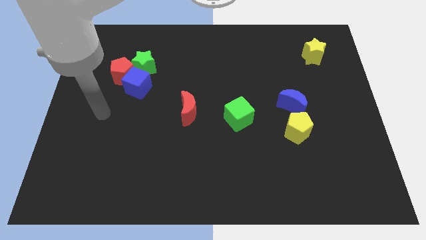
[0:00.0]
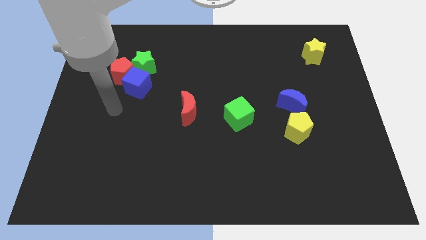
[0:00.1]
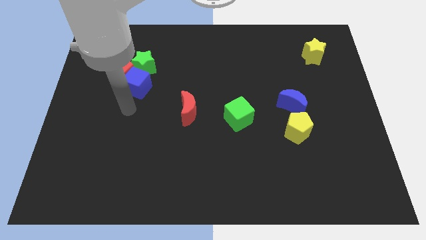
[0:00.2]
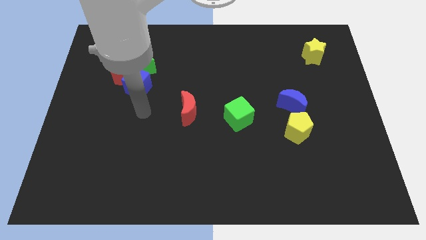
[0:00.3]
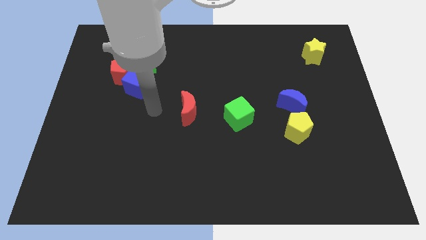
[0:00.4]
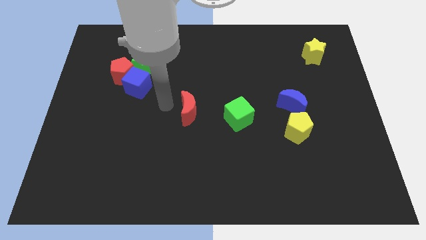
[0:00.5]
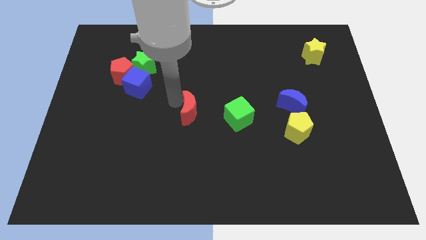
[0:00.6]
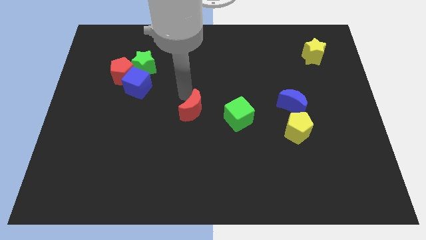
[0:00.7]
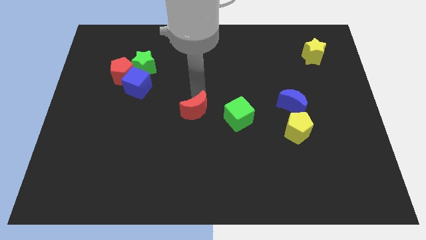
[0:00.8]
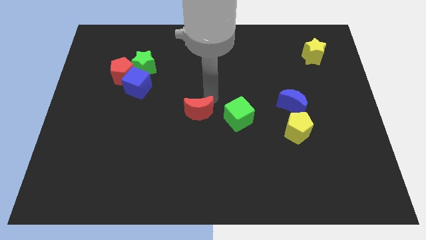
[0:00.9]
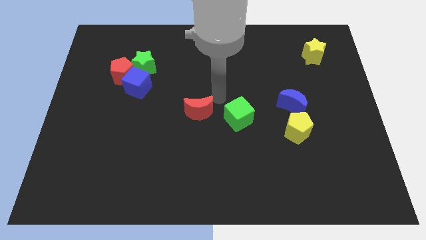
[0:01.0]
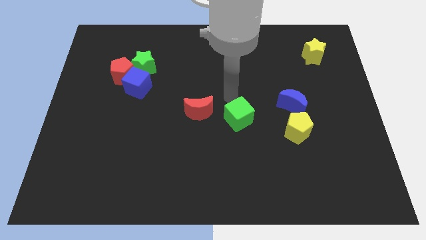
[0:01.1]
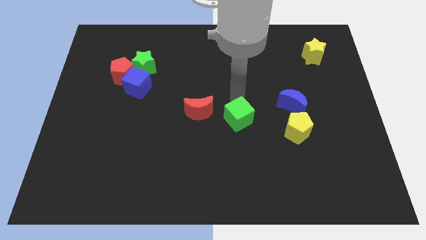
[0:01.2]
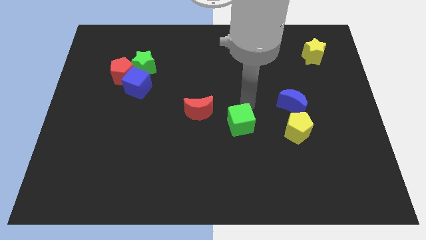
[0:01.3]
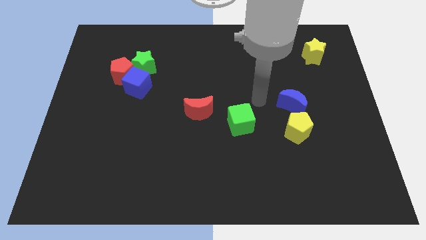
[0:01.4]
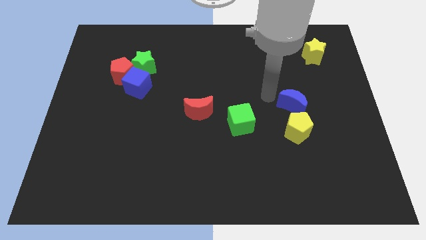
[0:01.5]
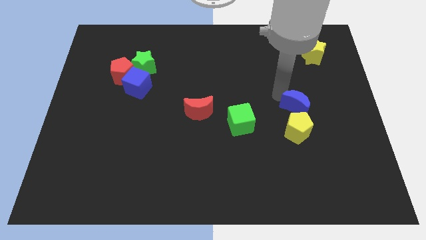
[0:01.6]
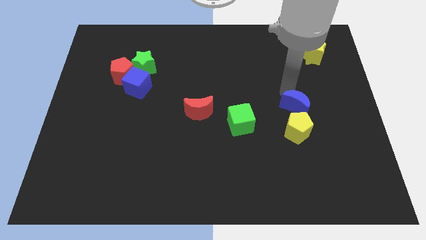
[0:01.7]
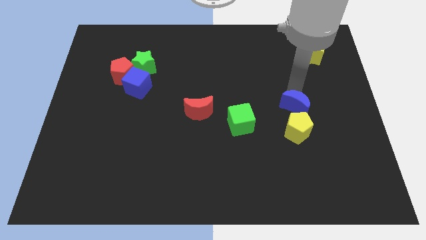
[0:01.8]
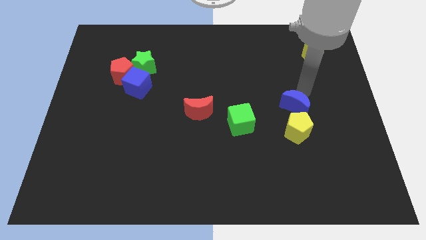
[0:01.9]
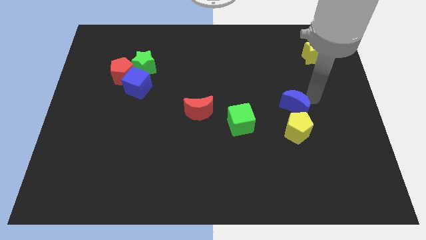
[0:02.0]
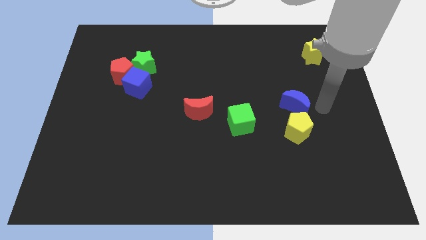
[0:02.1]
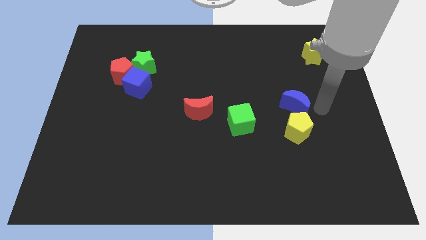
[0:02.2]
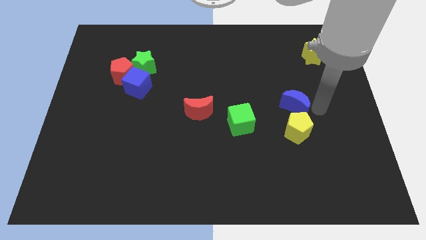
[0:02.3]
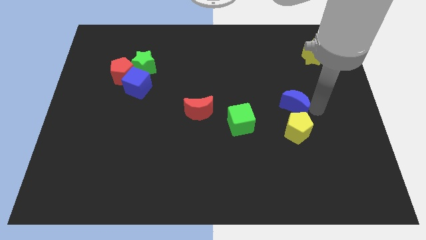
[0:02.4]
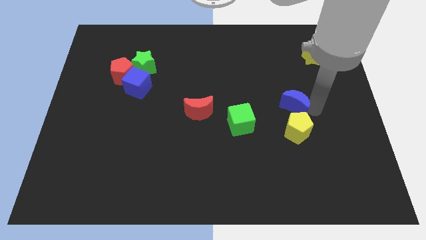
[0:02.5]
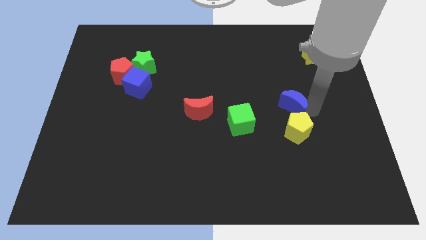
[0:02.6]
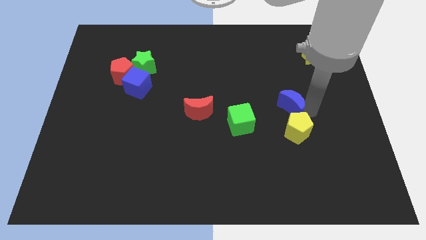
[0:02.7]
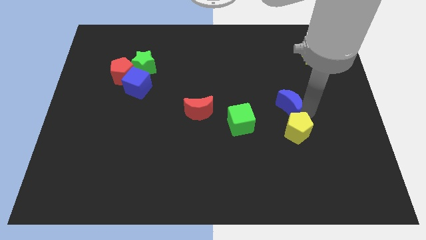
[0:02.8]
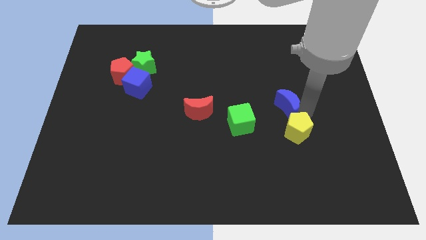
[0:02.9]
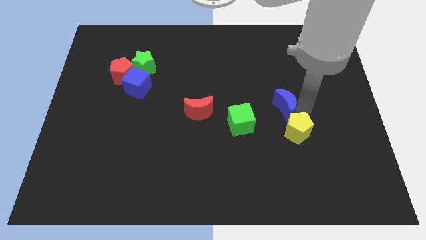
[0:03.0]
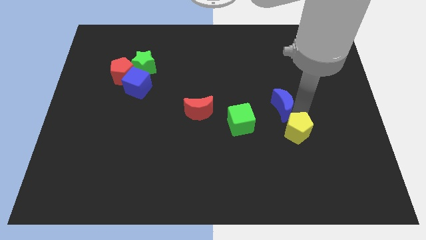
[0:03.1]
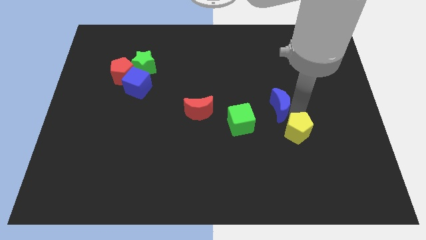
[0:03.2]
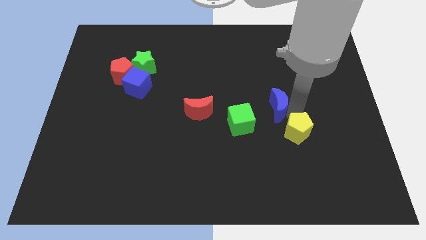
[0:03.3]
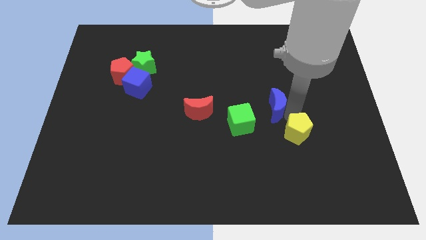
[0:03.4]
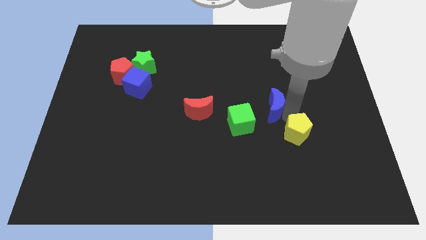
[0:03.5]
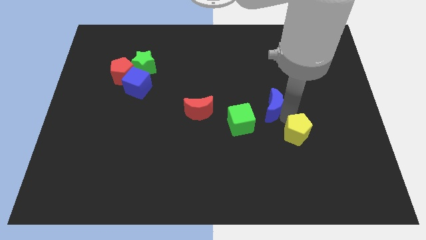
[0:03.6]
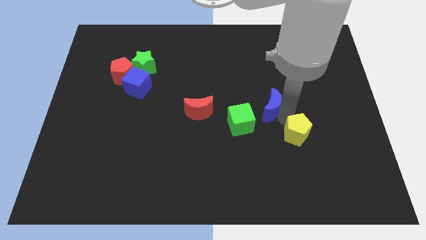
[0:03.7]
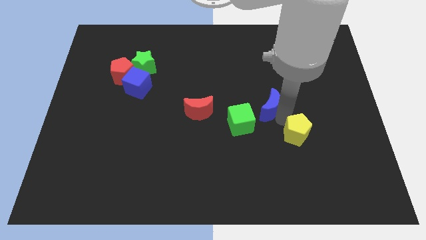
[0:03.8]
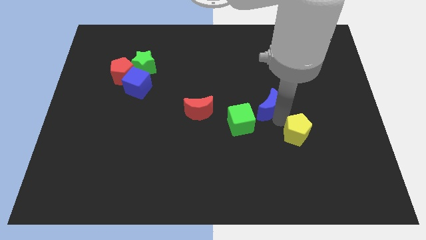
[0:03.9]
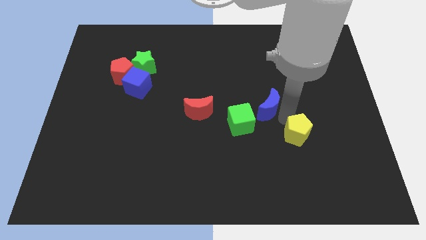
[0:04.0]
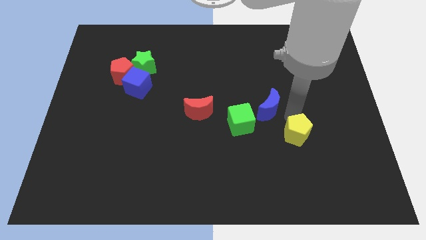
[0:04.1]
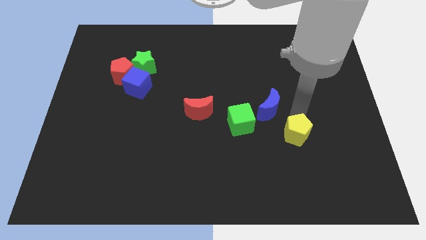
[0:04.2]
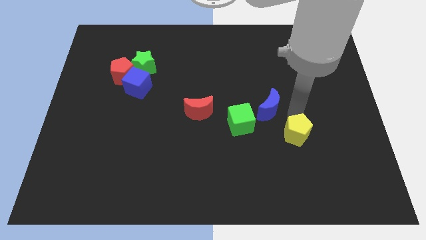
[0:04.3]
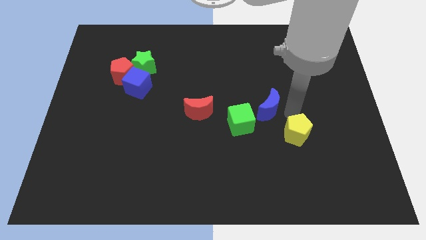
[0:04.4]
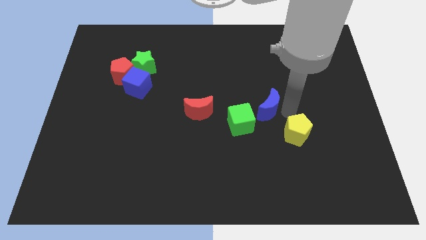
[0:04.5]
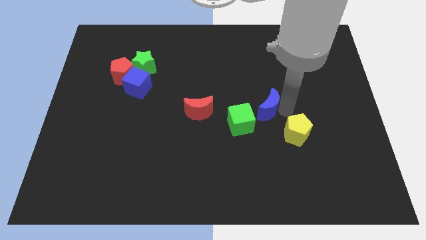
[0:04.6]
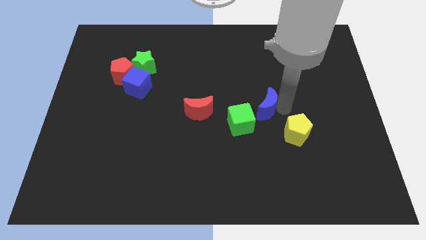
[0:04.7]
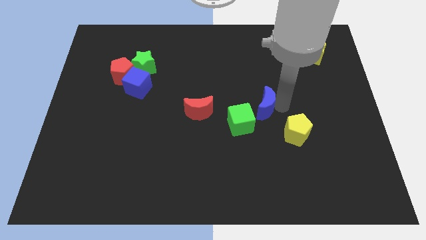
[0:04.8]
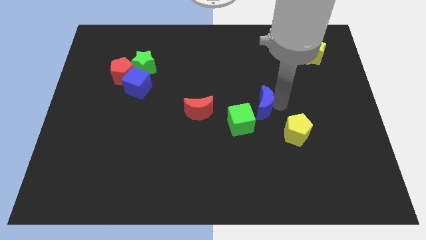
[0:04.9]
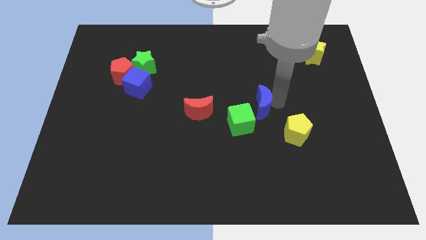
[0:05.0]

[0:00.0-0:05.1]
slightly slide the blue moon to the left

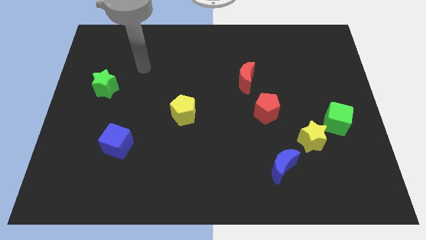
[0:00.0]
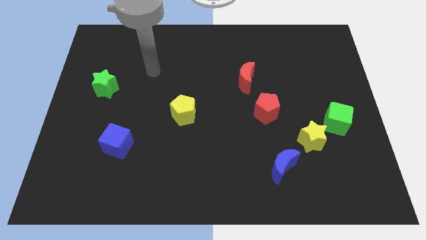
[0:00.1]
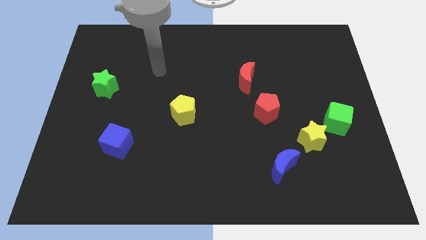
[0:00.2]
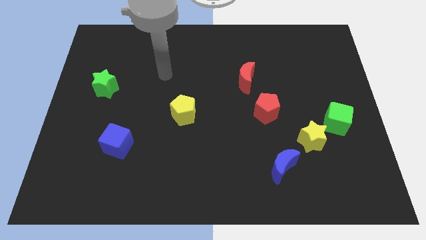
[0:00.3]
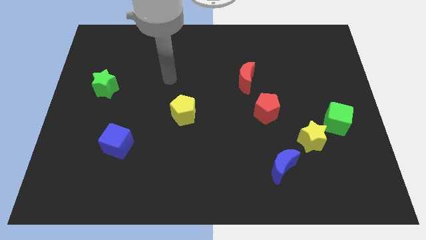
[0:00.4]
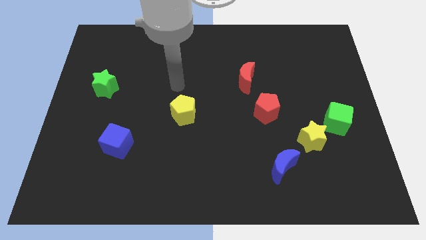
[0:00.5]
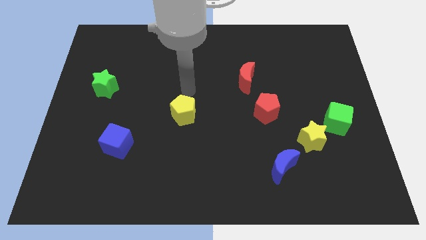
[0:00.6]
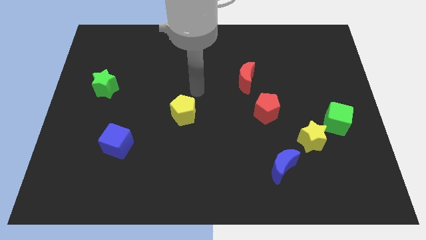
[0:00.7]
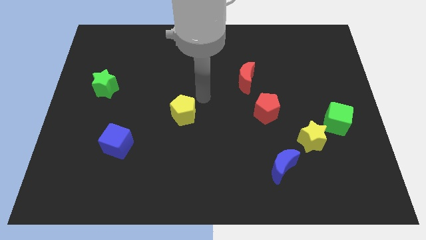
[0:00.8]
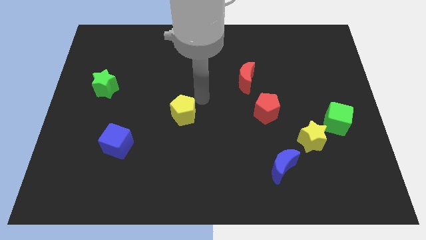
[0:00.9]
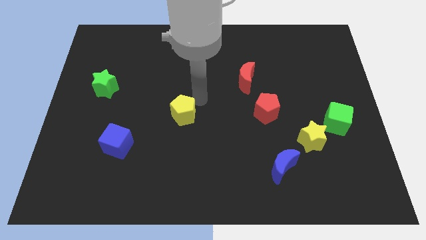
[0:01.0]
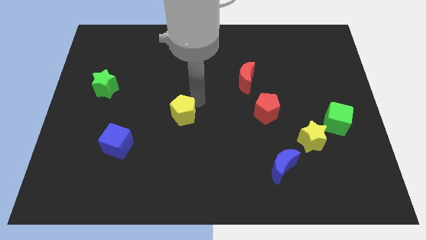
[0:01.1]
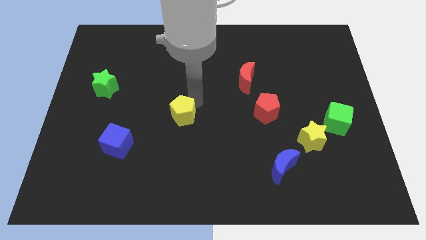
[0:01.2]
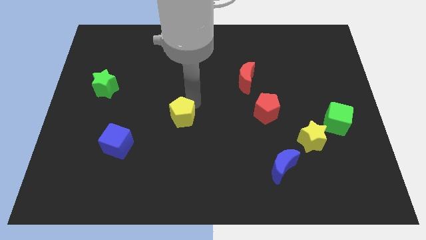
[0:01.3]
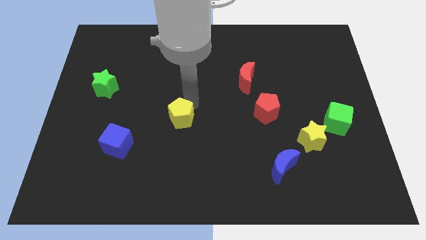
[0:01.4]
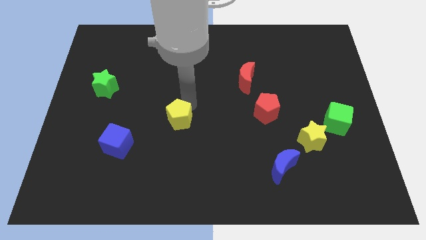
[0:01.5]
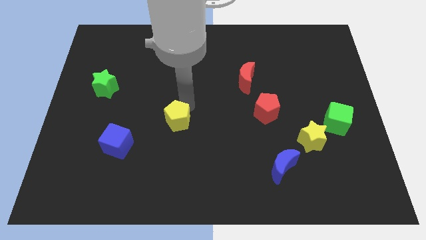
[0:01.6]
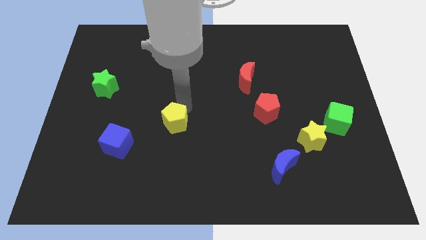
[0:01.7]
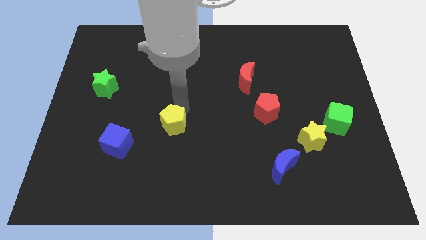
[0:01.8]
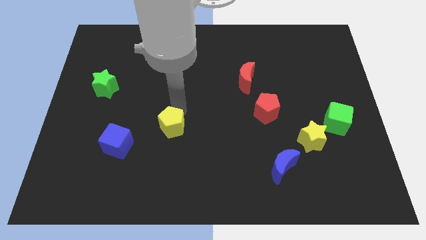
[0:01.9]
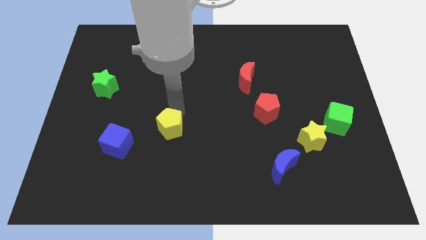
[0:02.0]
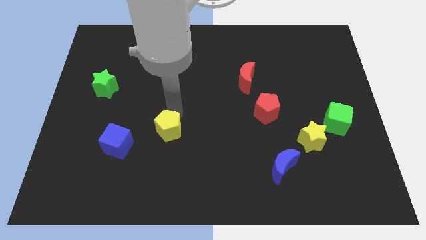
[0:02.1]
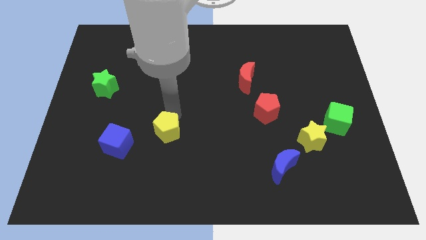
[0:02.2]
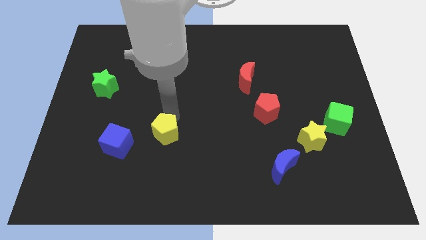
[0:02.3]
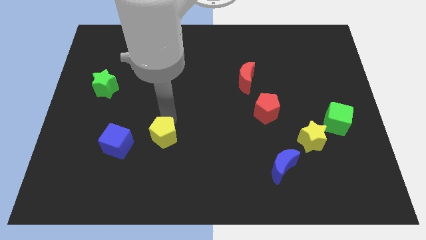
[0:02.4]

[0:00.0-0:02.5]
slide the yellow pentagon a little diagonally downwards and to the left

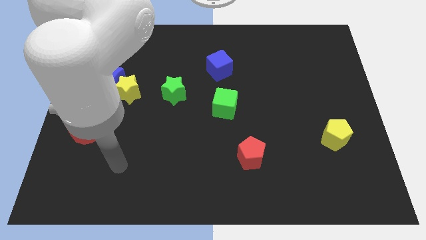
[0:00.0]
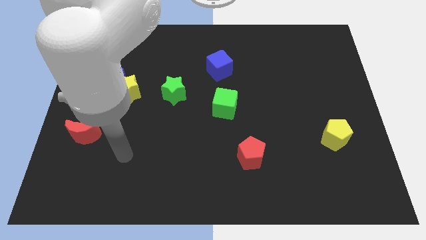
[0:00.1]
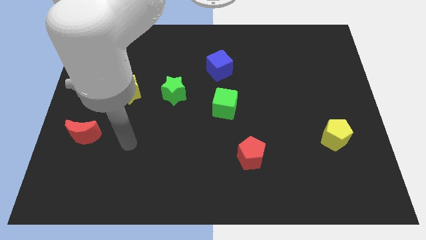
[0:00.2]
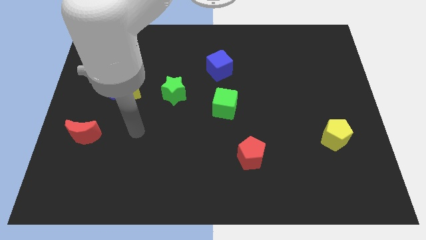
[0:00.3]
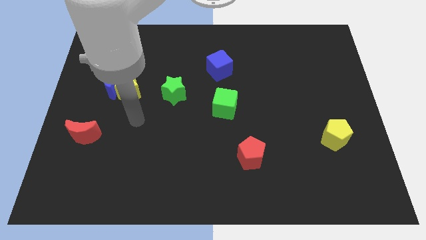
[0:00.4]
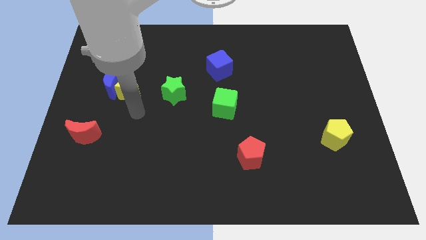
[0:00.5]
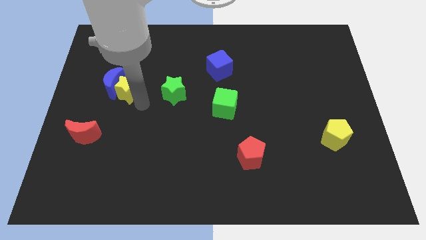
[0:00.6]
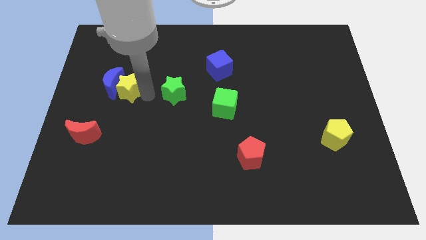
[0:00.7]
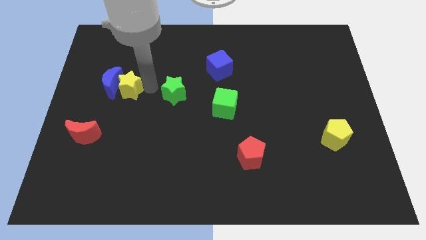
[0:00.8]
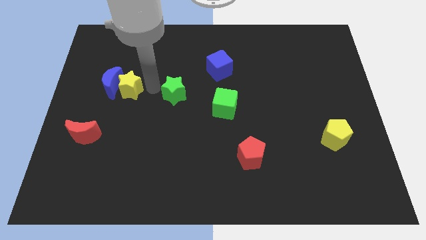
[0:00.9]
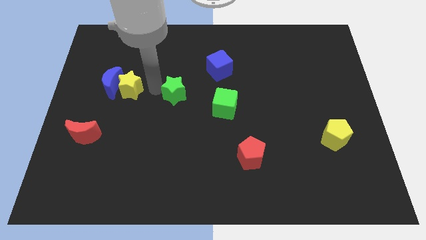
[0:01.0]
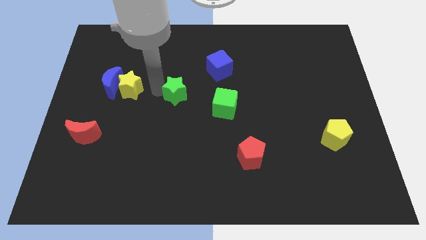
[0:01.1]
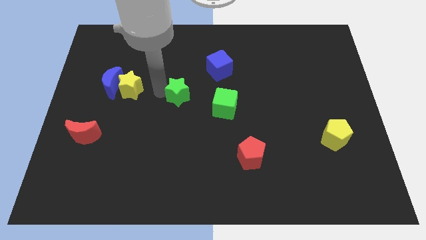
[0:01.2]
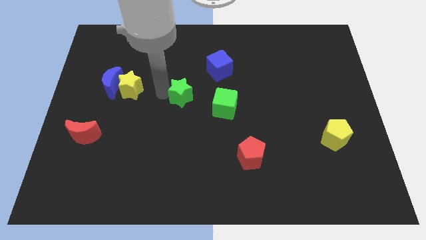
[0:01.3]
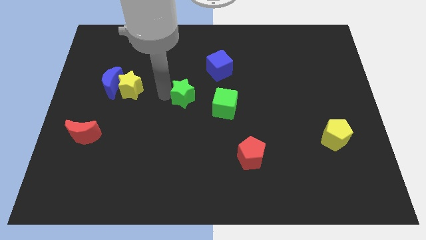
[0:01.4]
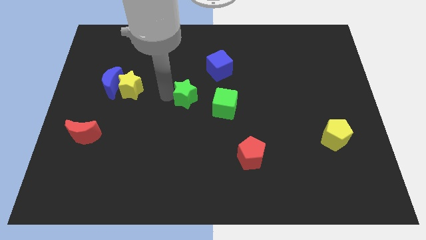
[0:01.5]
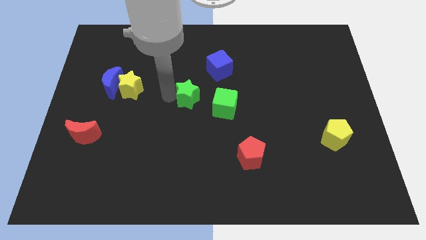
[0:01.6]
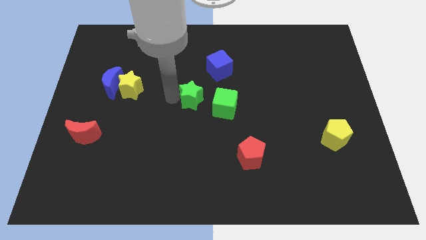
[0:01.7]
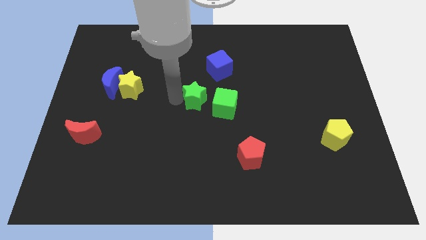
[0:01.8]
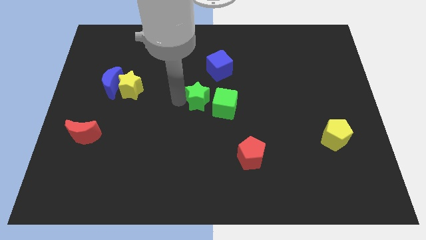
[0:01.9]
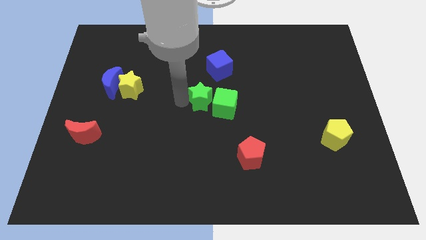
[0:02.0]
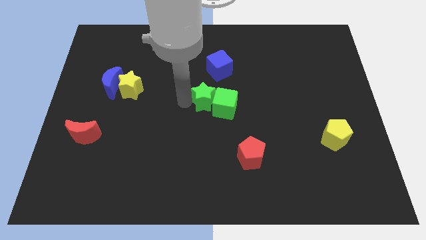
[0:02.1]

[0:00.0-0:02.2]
push the green star to the right a bit
